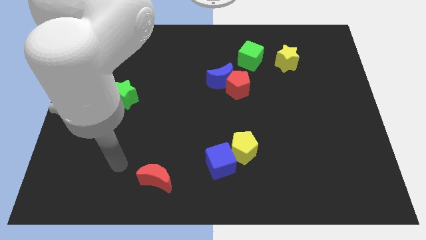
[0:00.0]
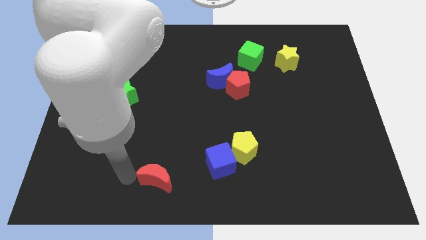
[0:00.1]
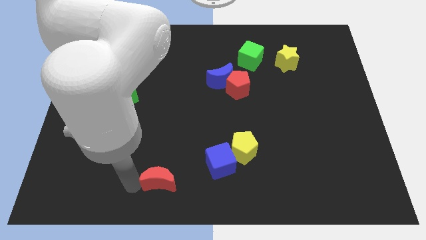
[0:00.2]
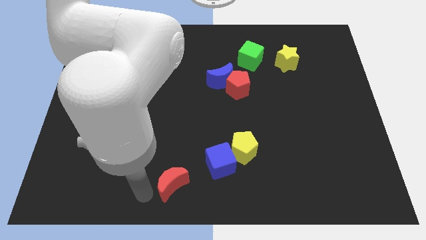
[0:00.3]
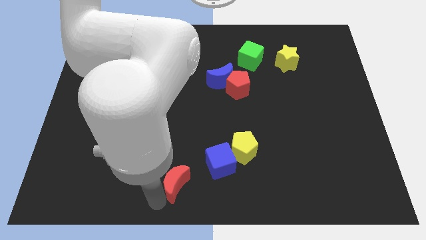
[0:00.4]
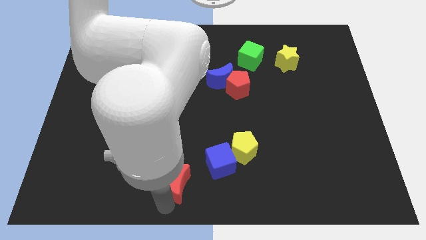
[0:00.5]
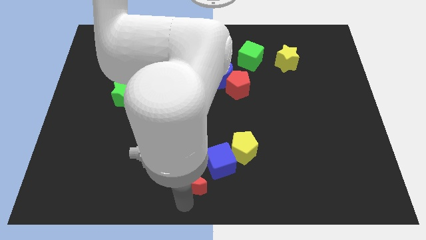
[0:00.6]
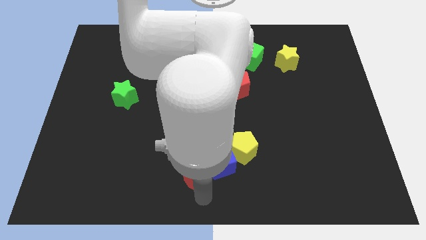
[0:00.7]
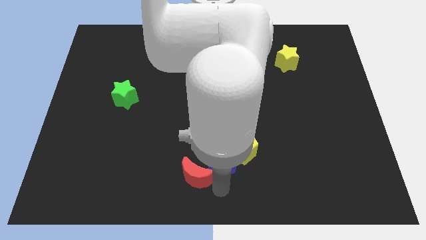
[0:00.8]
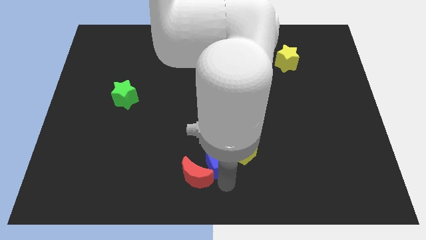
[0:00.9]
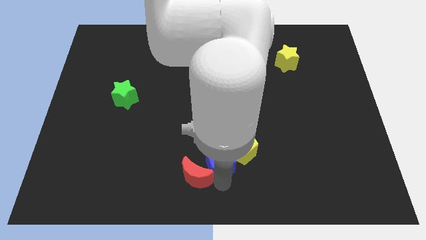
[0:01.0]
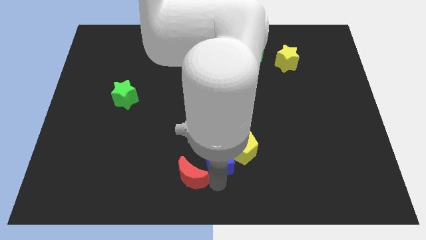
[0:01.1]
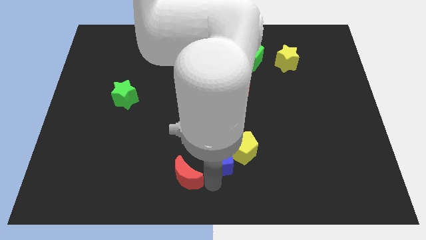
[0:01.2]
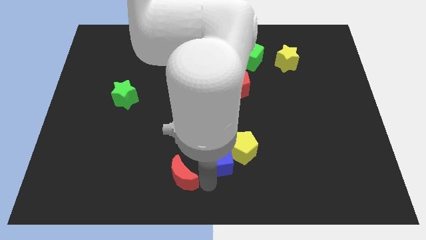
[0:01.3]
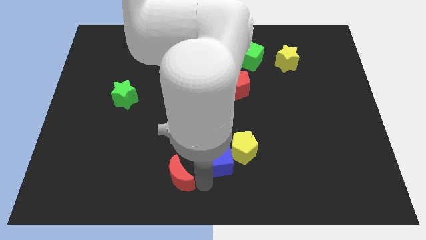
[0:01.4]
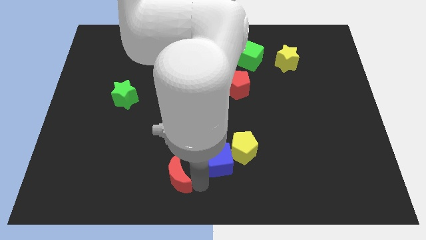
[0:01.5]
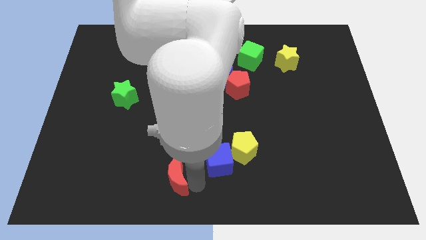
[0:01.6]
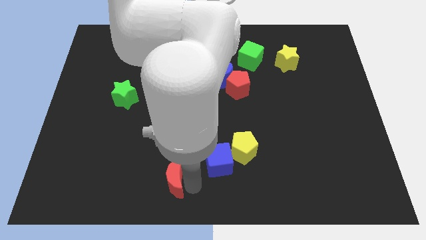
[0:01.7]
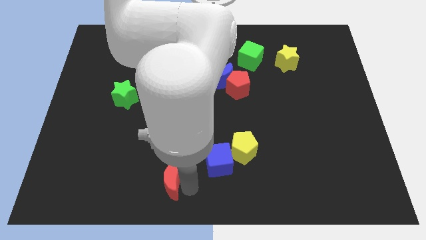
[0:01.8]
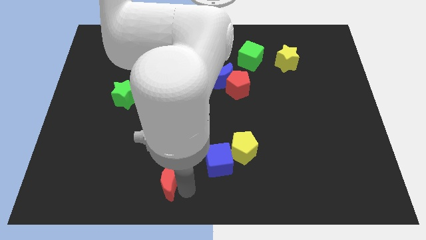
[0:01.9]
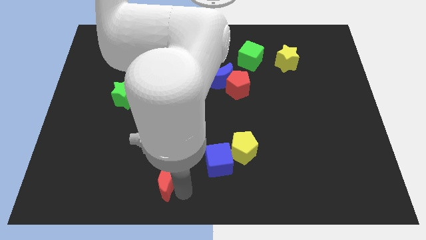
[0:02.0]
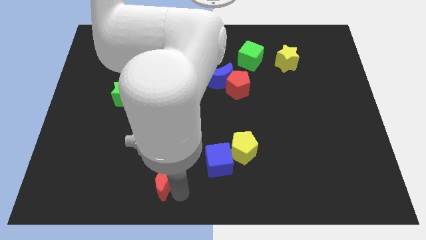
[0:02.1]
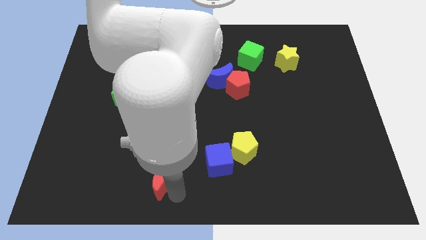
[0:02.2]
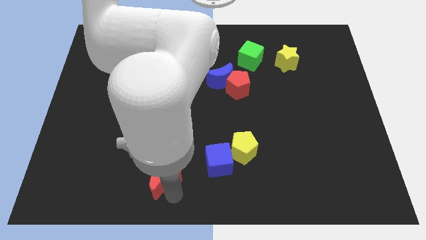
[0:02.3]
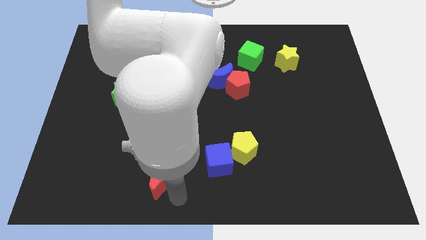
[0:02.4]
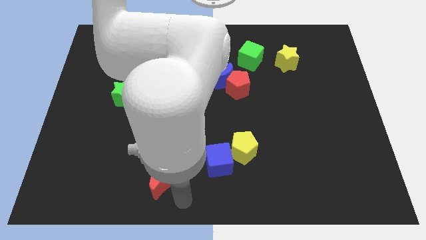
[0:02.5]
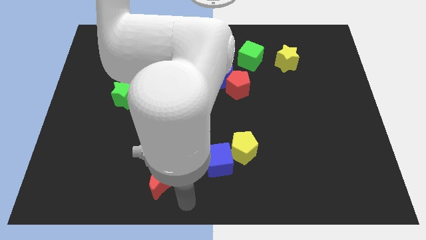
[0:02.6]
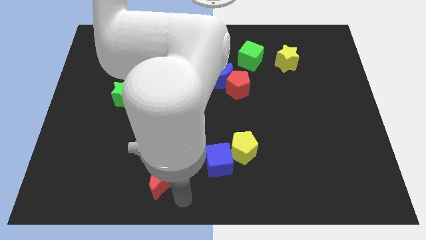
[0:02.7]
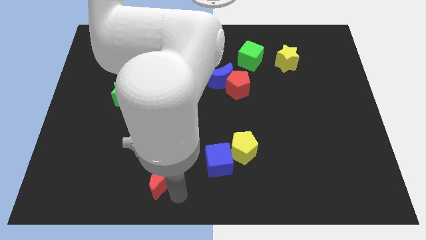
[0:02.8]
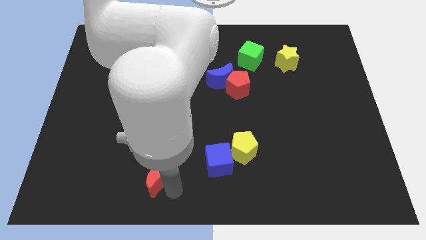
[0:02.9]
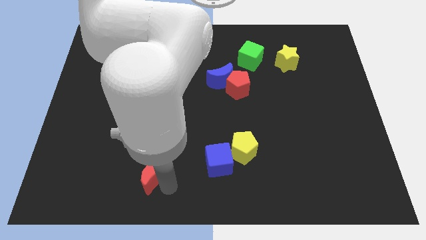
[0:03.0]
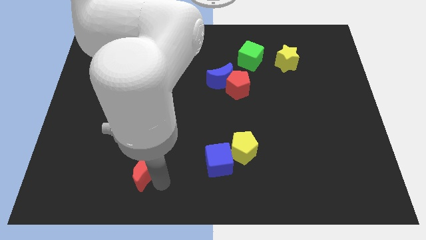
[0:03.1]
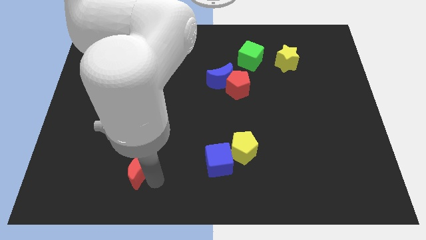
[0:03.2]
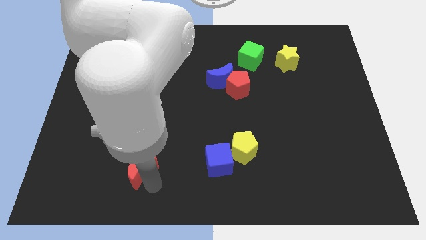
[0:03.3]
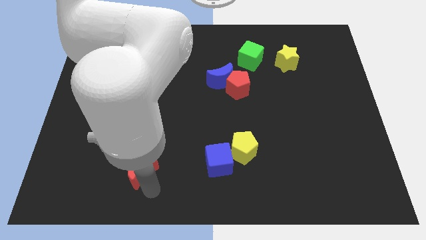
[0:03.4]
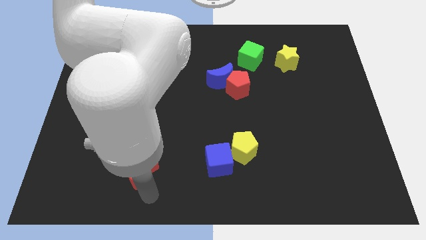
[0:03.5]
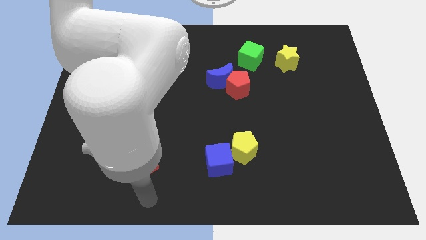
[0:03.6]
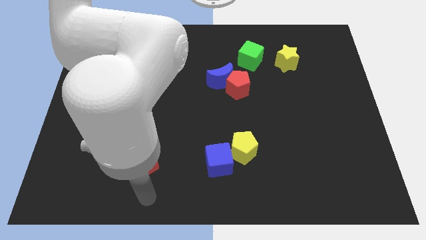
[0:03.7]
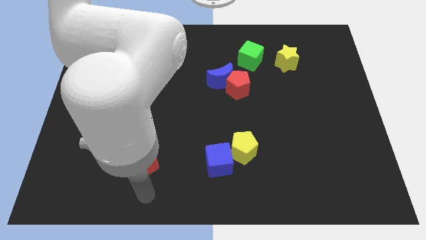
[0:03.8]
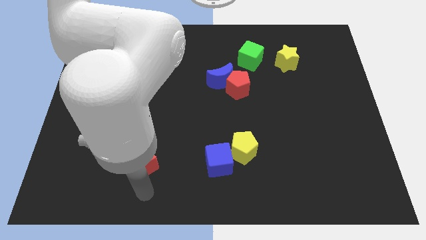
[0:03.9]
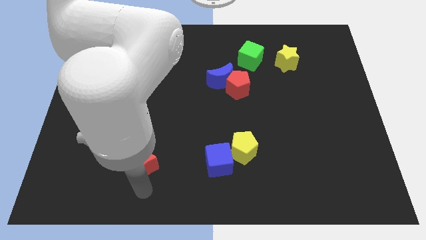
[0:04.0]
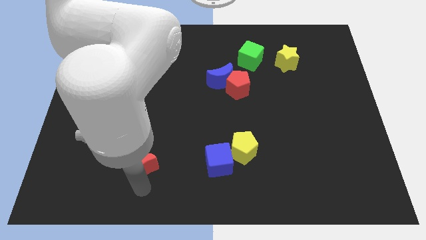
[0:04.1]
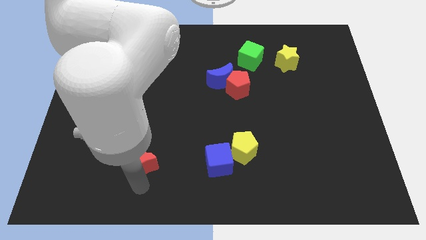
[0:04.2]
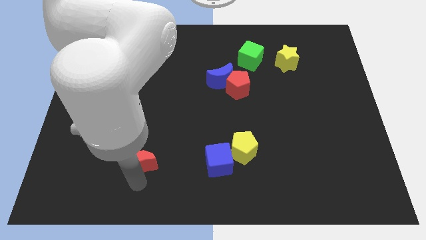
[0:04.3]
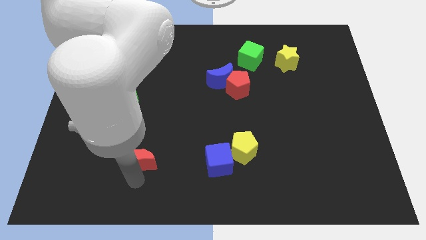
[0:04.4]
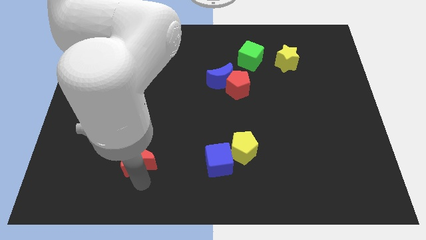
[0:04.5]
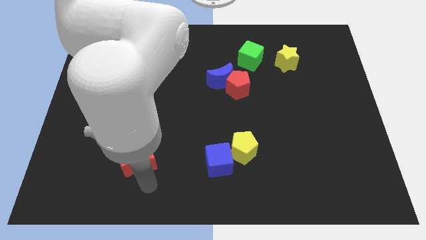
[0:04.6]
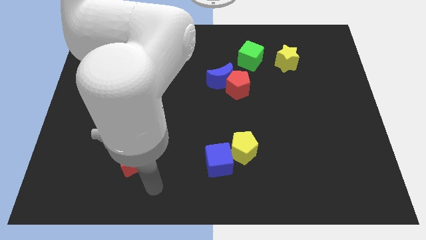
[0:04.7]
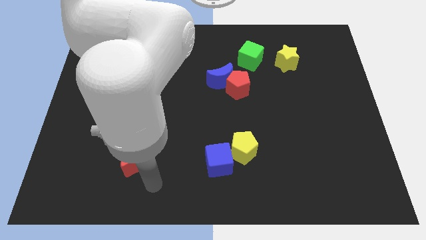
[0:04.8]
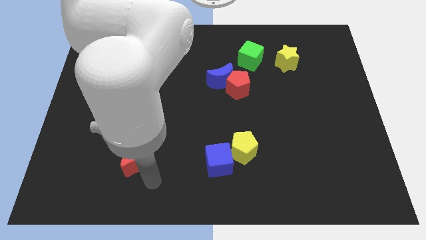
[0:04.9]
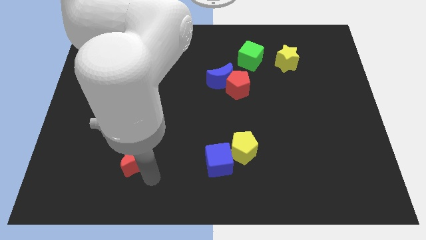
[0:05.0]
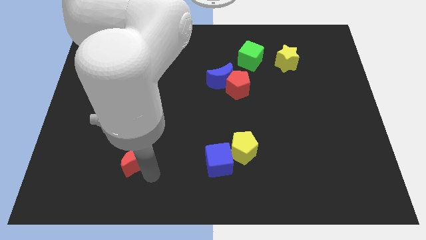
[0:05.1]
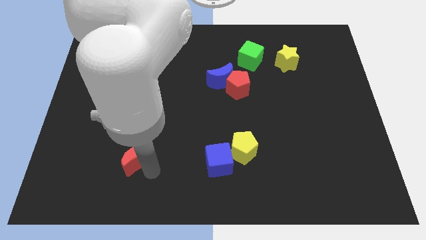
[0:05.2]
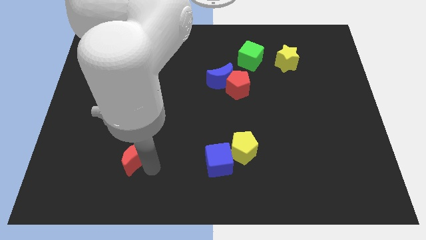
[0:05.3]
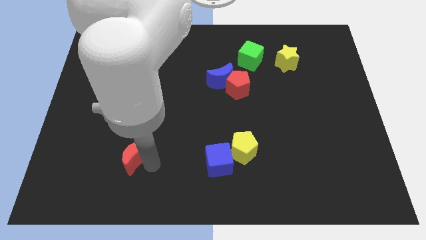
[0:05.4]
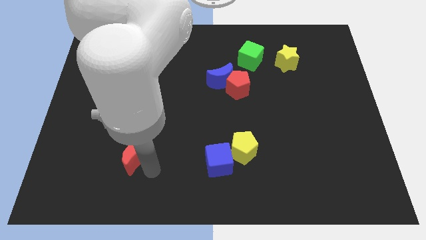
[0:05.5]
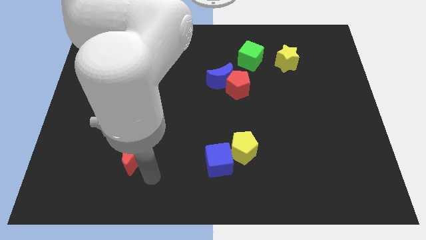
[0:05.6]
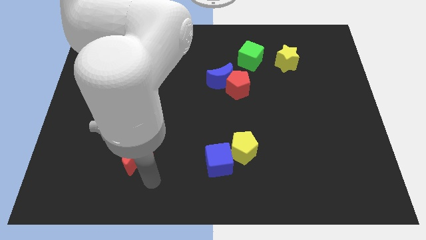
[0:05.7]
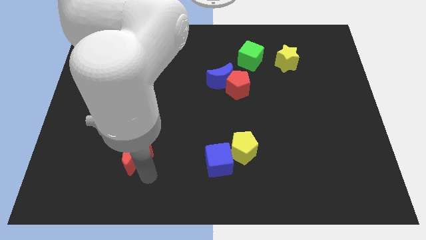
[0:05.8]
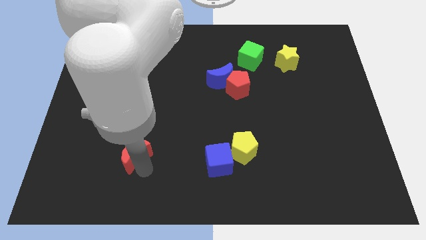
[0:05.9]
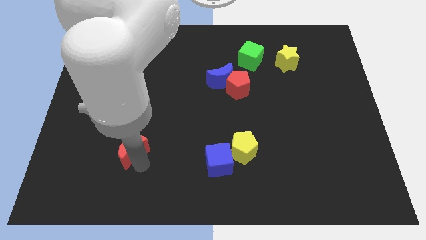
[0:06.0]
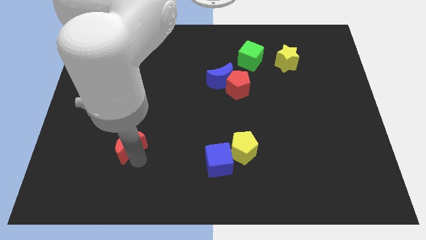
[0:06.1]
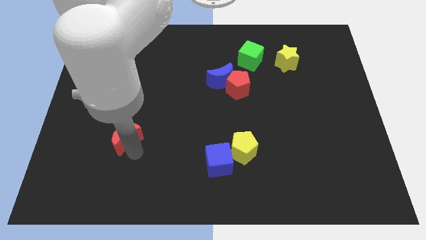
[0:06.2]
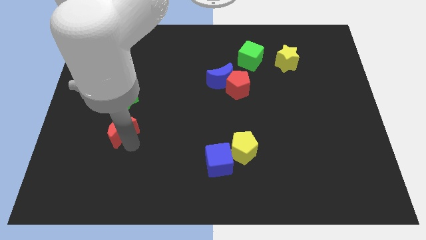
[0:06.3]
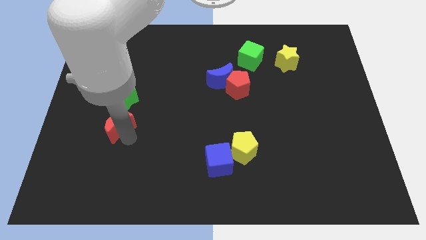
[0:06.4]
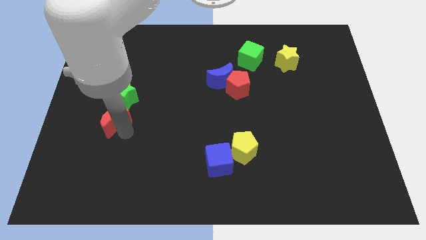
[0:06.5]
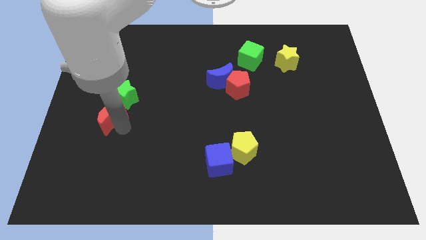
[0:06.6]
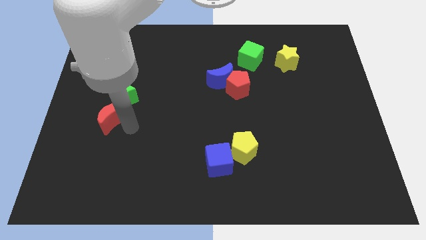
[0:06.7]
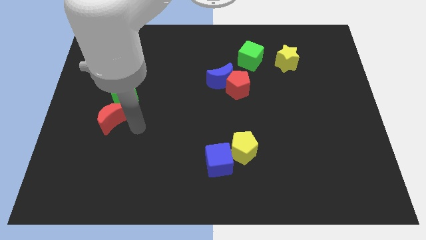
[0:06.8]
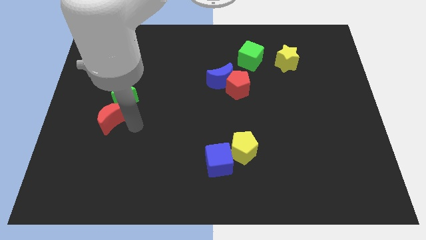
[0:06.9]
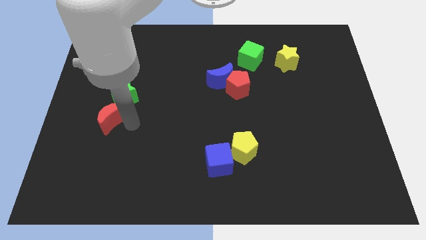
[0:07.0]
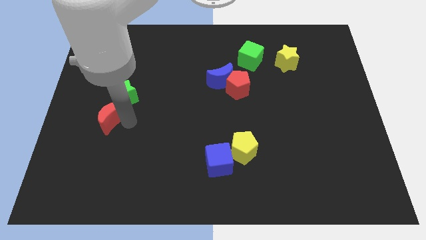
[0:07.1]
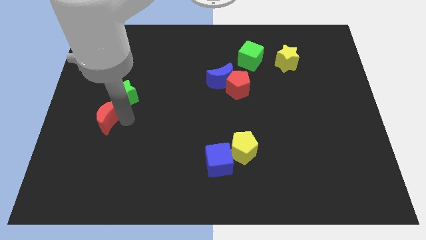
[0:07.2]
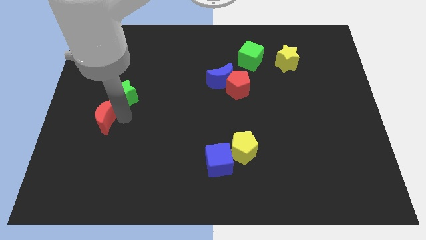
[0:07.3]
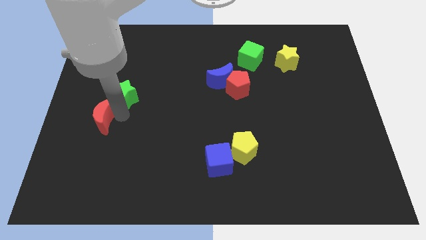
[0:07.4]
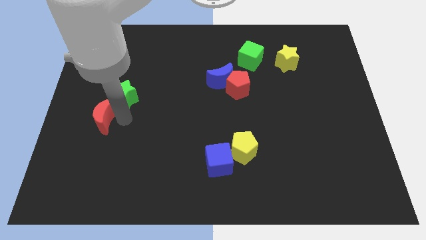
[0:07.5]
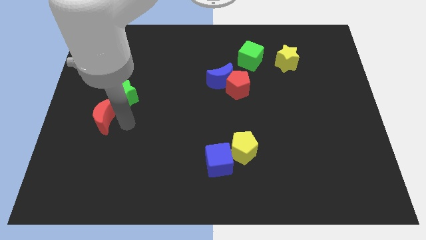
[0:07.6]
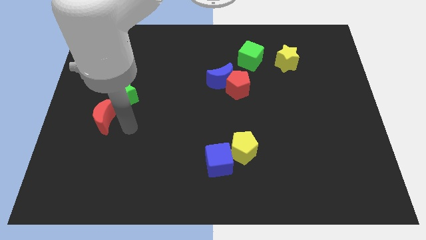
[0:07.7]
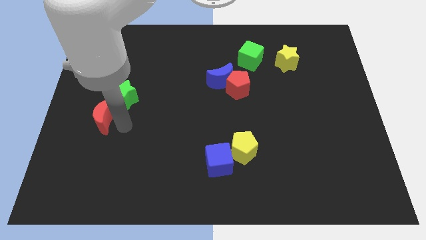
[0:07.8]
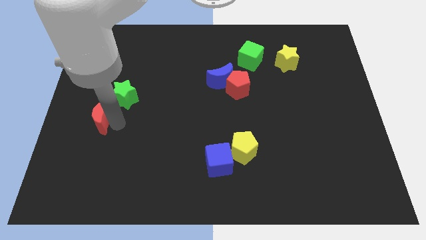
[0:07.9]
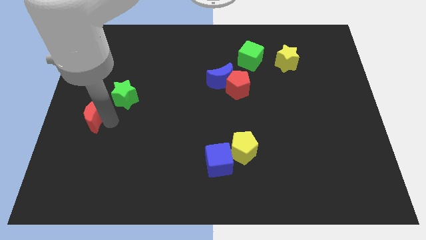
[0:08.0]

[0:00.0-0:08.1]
put the red moon to the left side of the board
